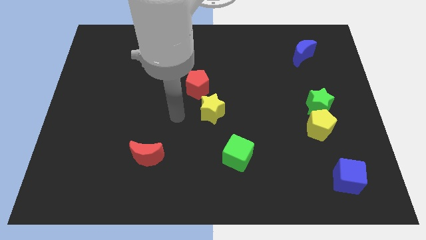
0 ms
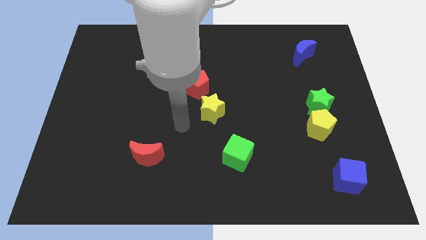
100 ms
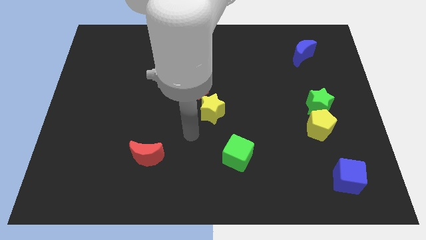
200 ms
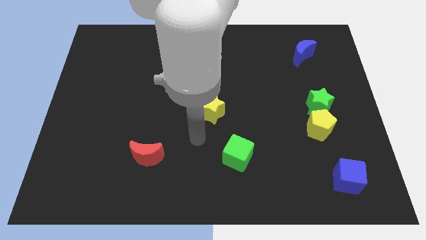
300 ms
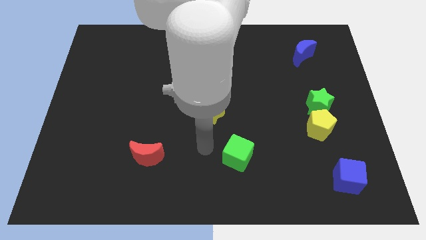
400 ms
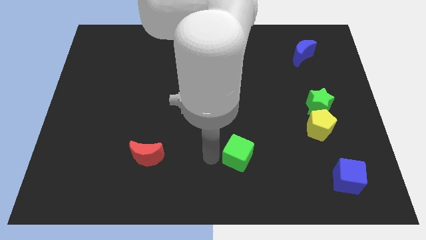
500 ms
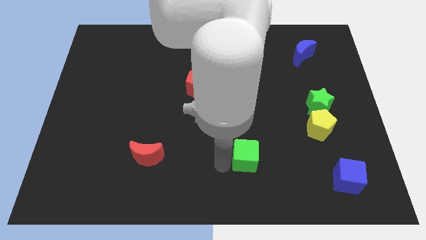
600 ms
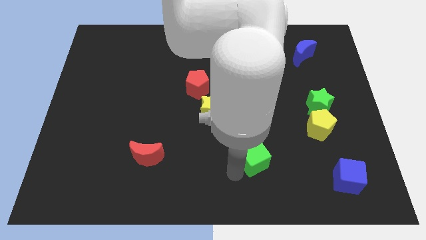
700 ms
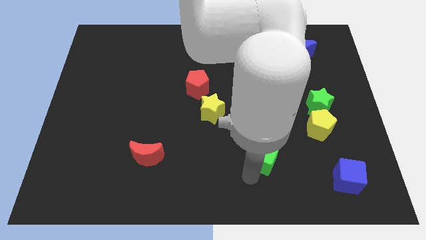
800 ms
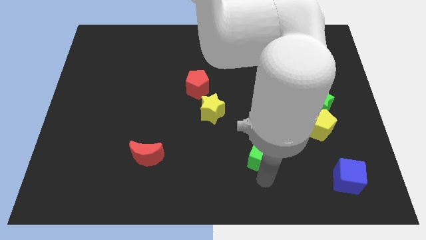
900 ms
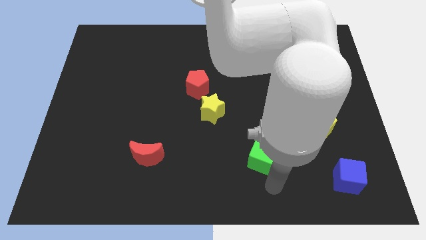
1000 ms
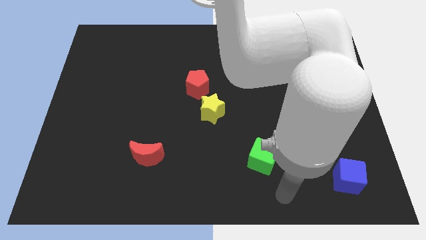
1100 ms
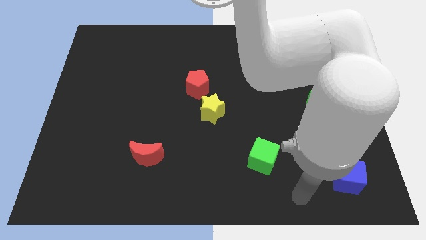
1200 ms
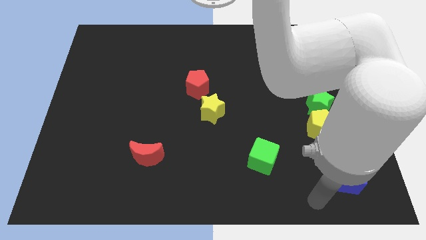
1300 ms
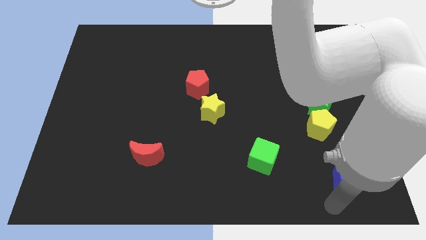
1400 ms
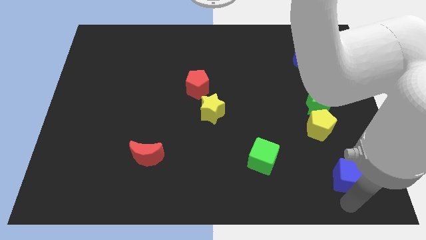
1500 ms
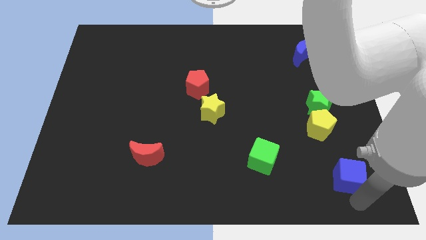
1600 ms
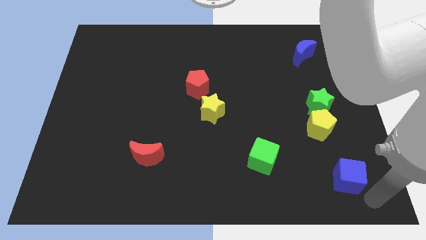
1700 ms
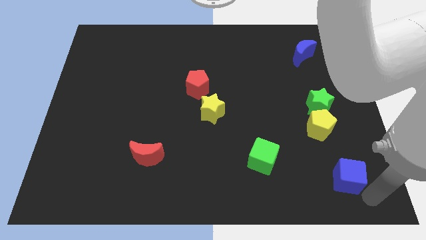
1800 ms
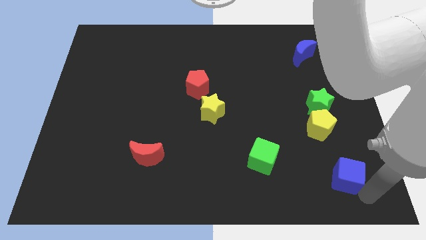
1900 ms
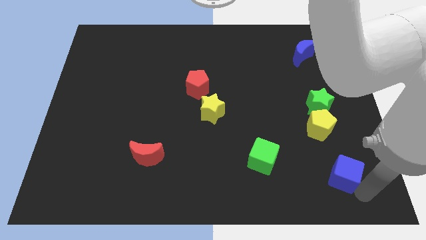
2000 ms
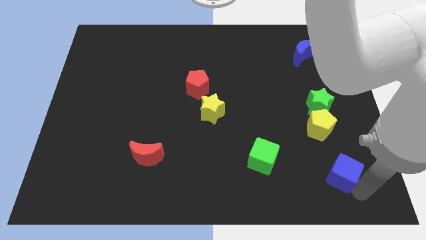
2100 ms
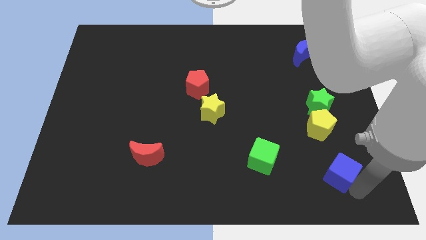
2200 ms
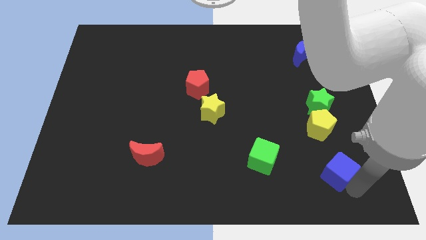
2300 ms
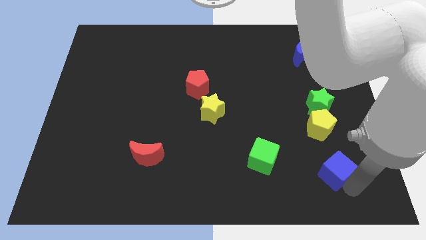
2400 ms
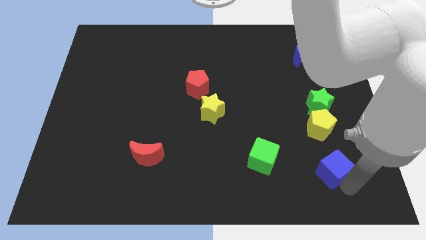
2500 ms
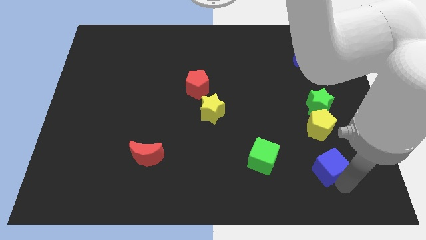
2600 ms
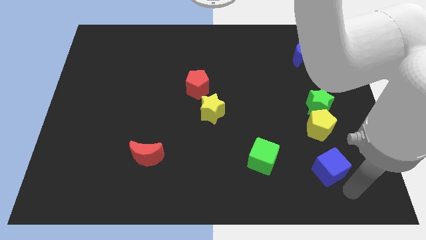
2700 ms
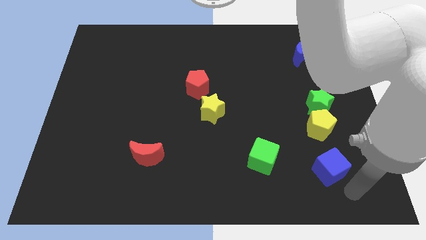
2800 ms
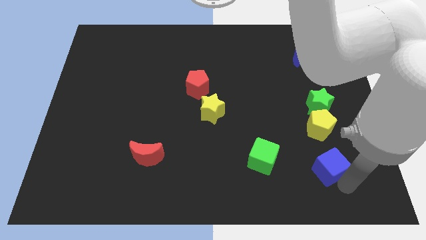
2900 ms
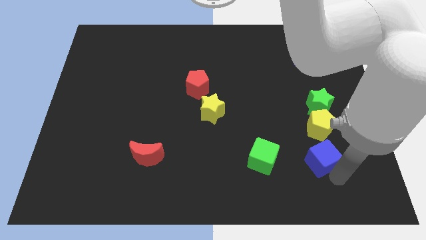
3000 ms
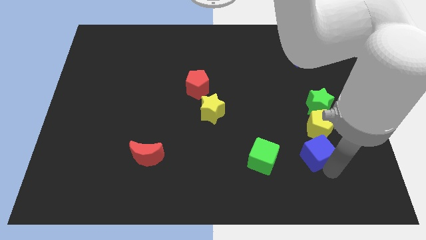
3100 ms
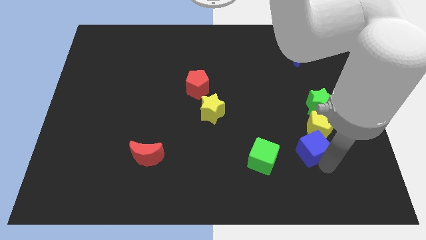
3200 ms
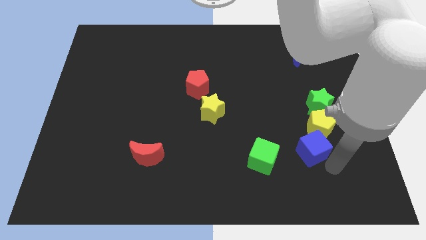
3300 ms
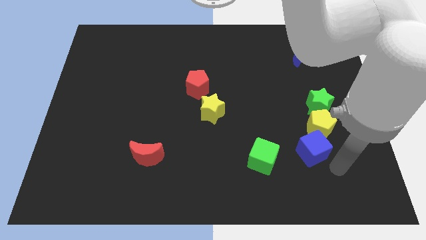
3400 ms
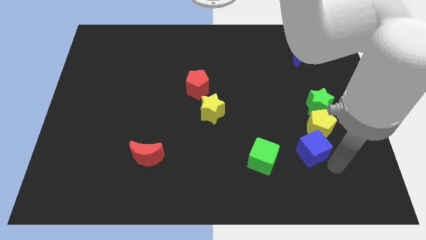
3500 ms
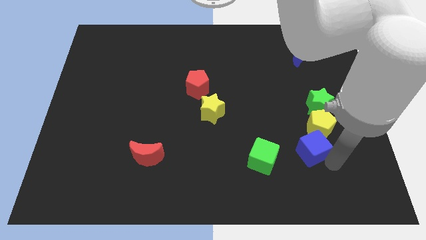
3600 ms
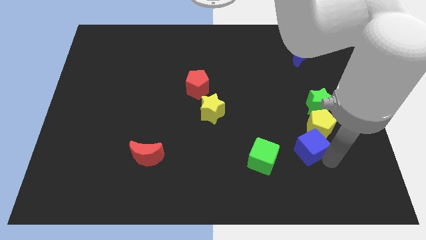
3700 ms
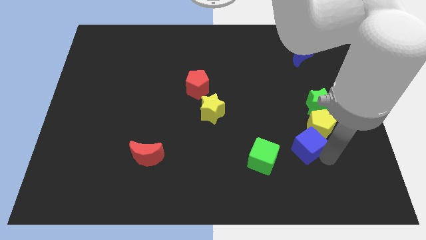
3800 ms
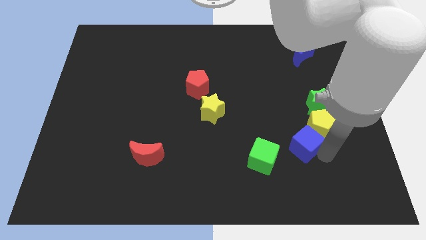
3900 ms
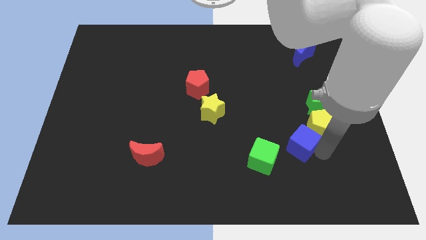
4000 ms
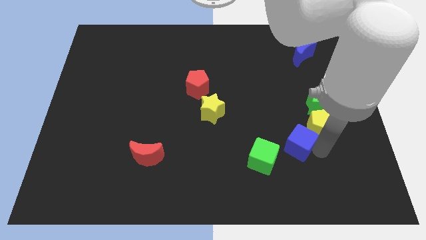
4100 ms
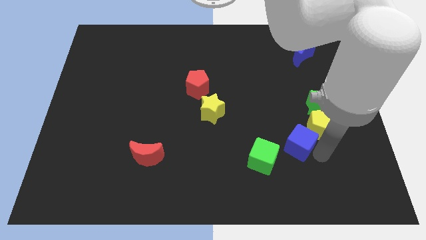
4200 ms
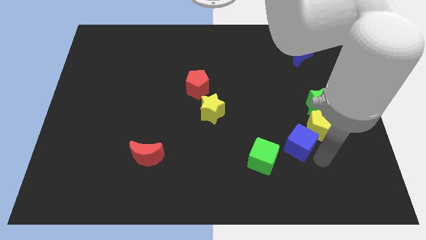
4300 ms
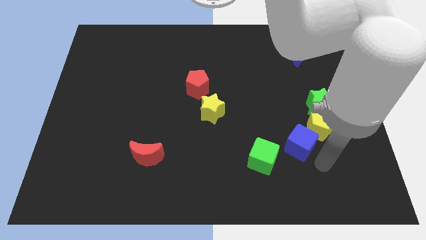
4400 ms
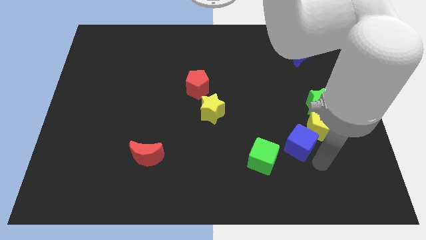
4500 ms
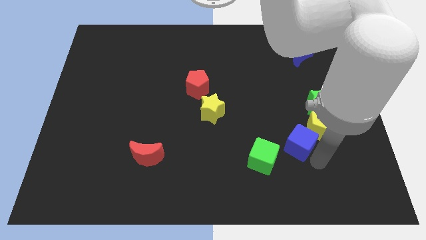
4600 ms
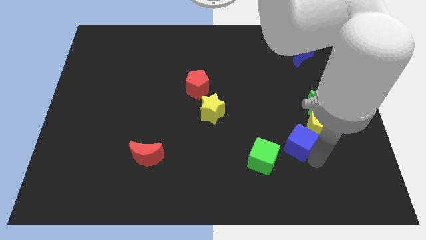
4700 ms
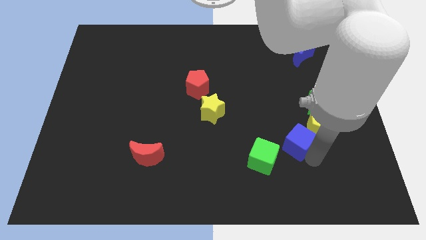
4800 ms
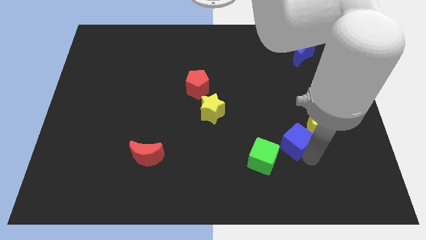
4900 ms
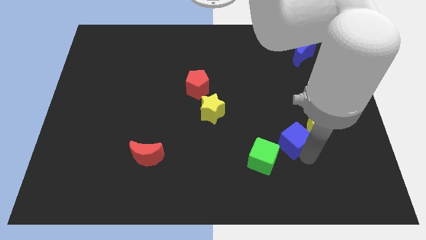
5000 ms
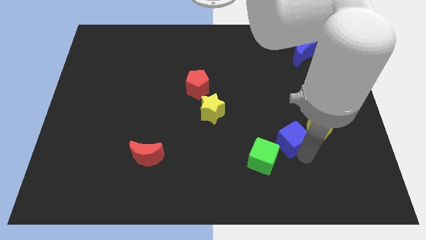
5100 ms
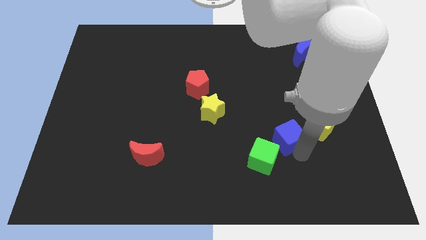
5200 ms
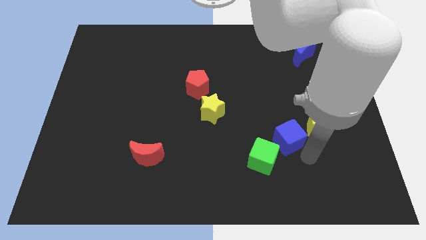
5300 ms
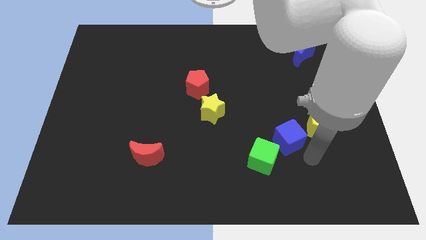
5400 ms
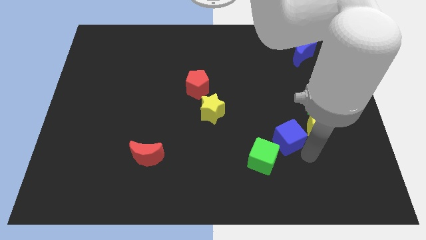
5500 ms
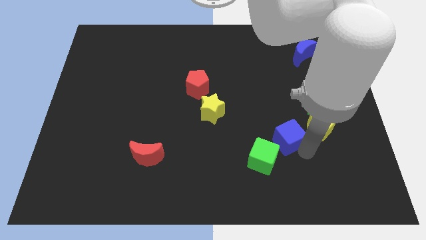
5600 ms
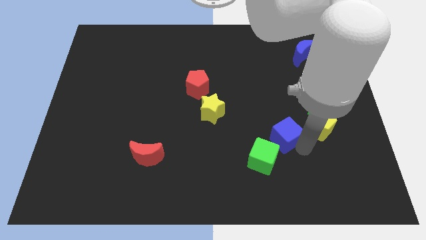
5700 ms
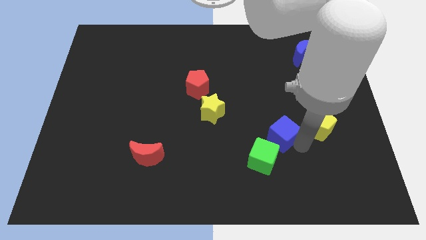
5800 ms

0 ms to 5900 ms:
push the blue cube to the top side of the green cube
